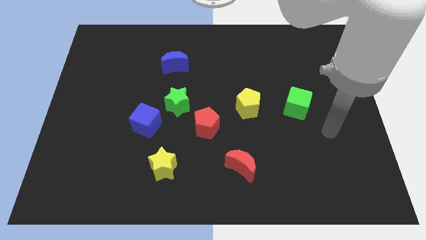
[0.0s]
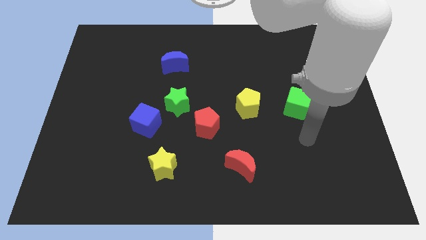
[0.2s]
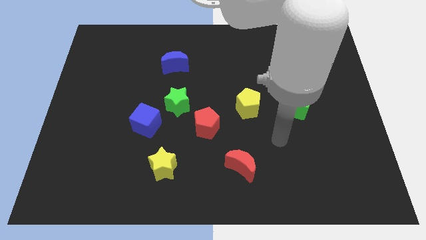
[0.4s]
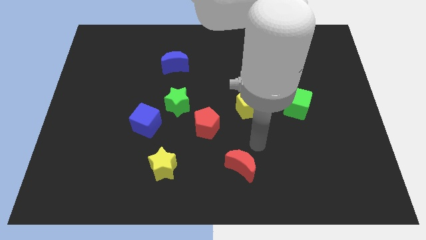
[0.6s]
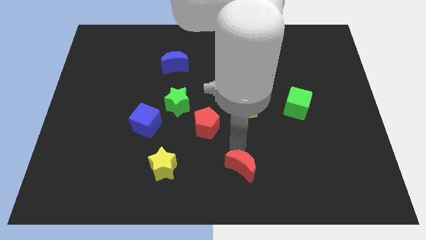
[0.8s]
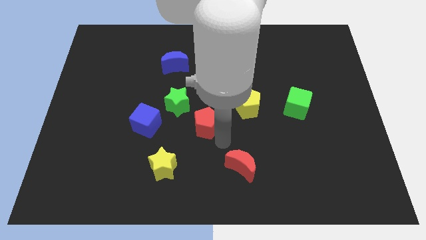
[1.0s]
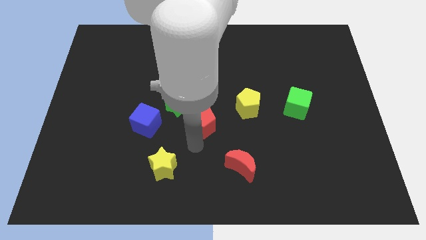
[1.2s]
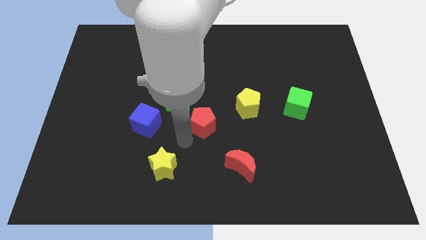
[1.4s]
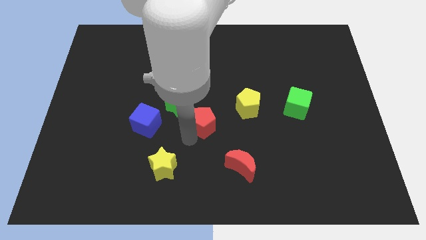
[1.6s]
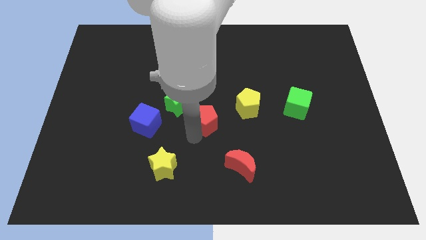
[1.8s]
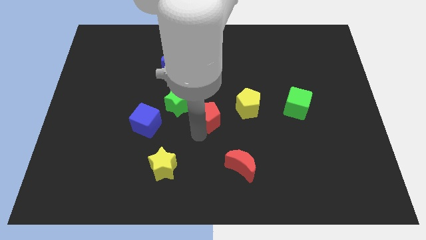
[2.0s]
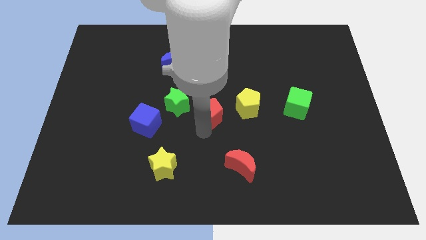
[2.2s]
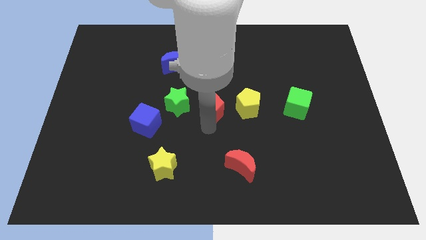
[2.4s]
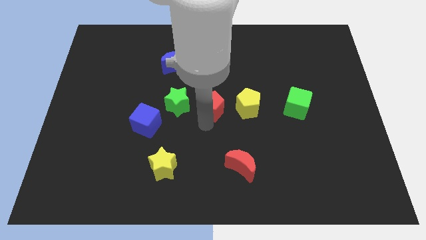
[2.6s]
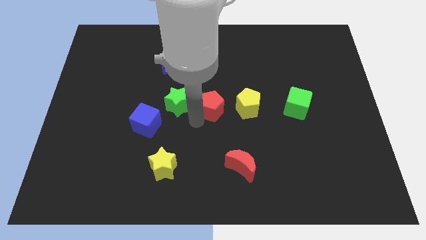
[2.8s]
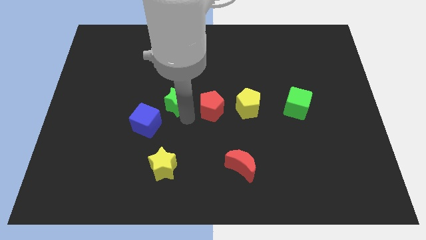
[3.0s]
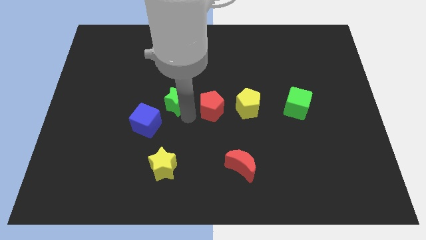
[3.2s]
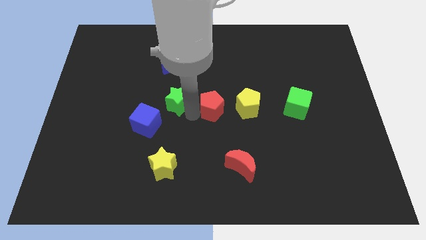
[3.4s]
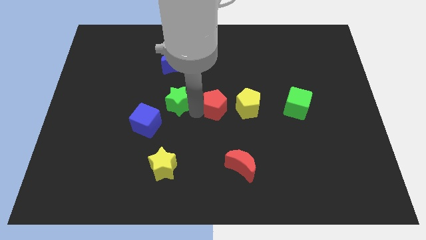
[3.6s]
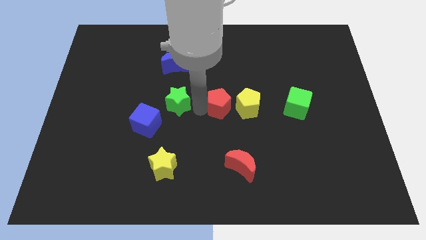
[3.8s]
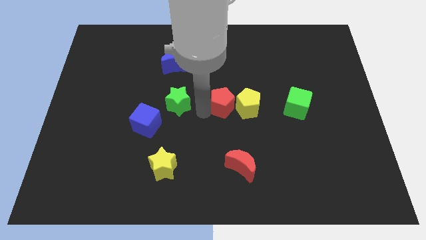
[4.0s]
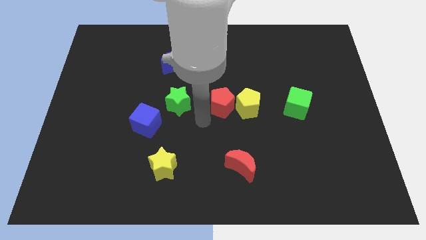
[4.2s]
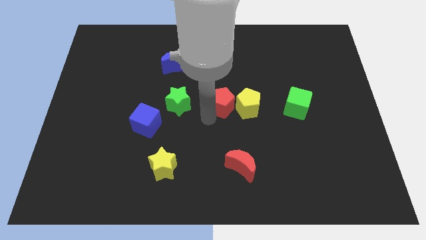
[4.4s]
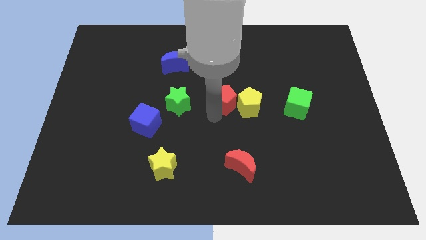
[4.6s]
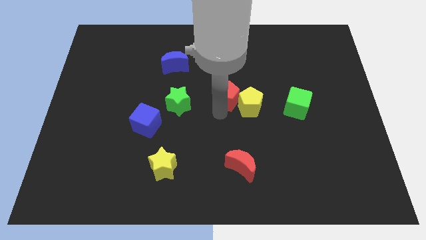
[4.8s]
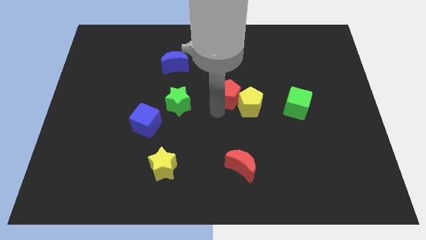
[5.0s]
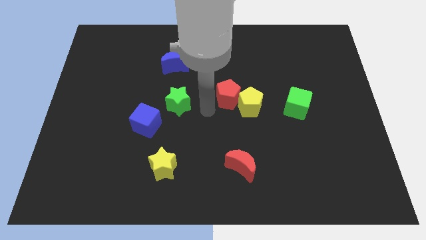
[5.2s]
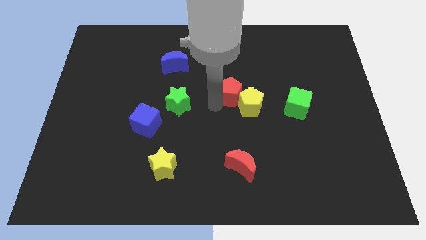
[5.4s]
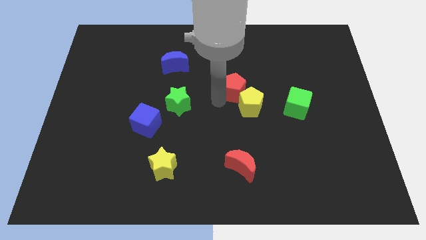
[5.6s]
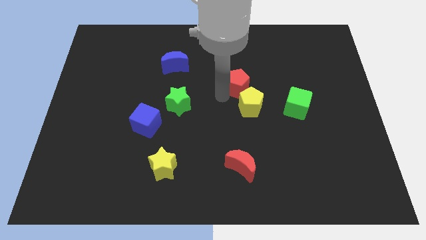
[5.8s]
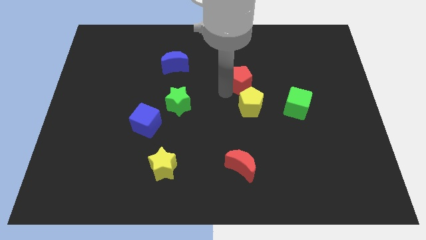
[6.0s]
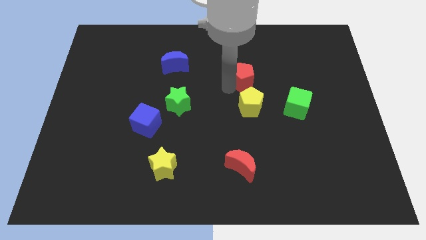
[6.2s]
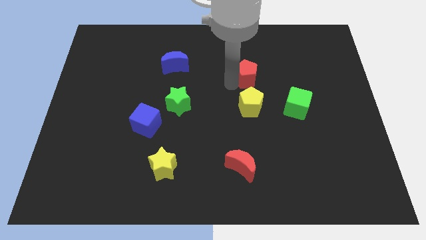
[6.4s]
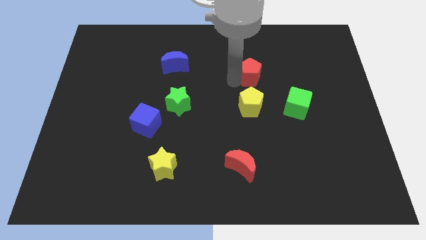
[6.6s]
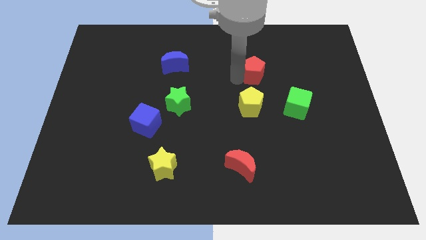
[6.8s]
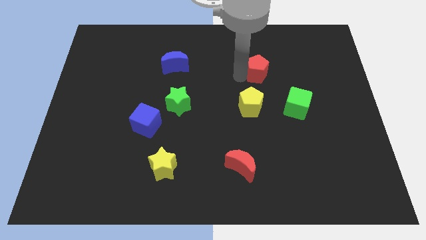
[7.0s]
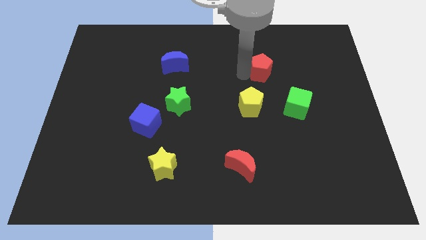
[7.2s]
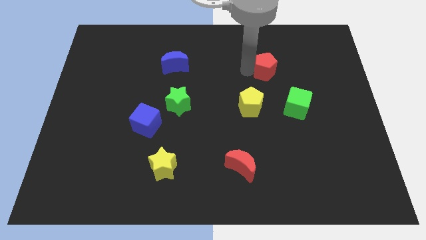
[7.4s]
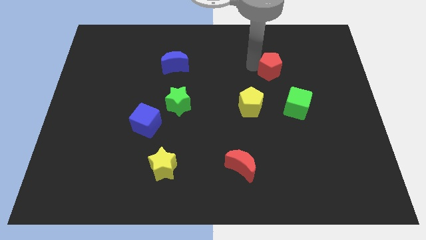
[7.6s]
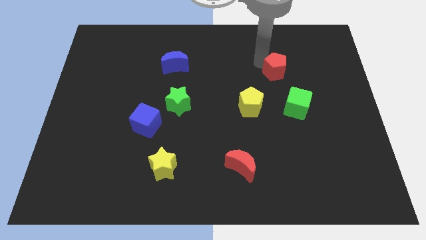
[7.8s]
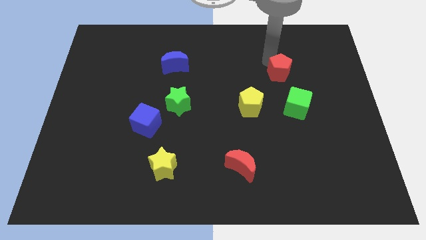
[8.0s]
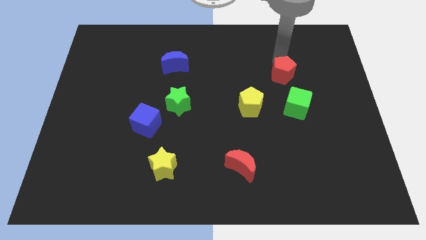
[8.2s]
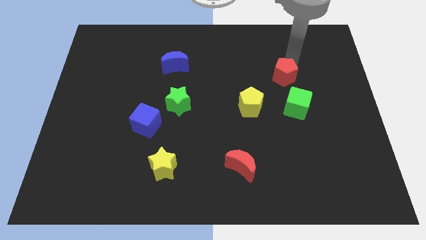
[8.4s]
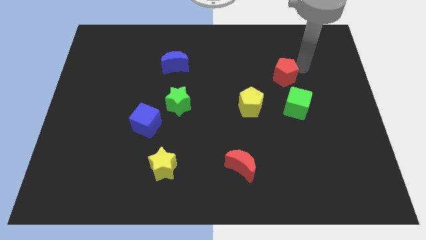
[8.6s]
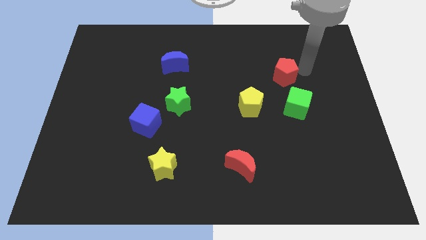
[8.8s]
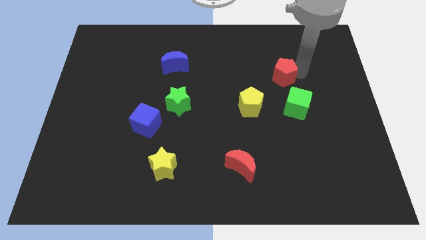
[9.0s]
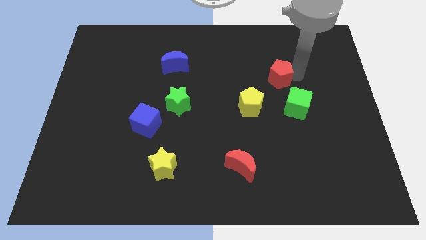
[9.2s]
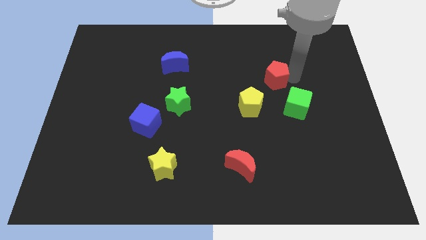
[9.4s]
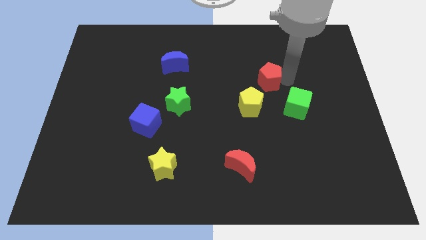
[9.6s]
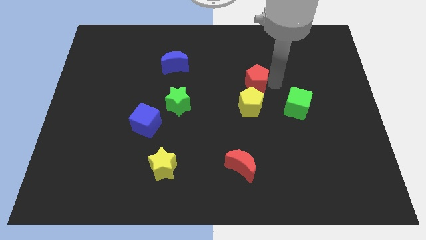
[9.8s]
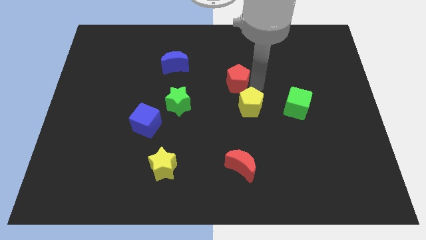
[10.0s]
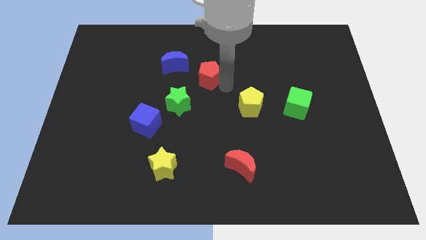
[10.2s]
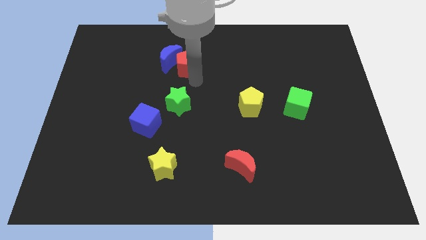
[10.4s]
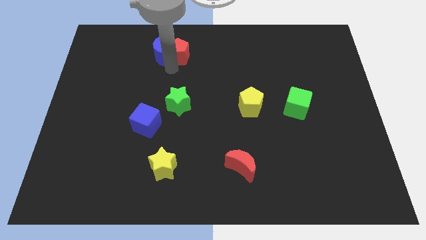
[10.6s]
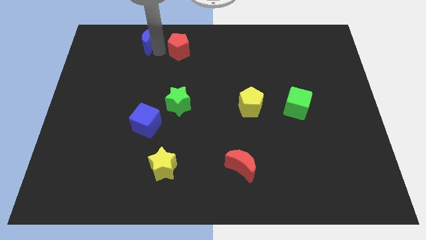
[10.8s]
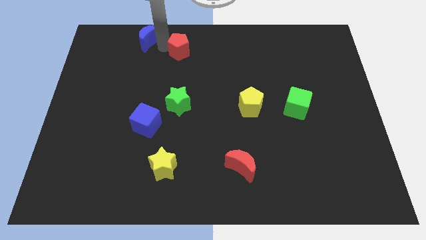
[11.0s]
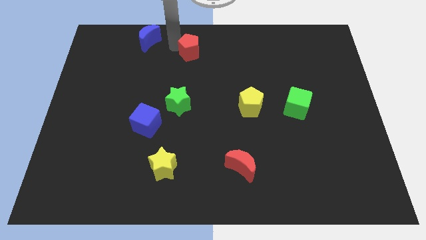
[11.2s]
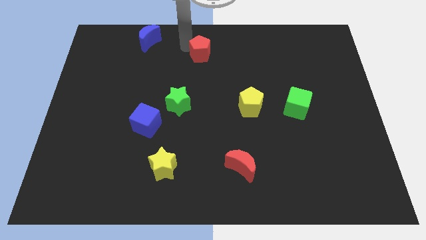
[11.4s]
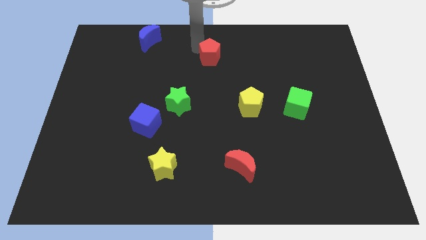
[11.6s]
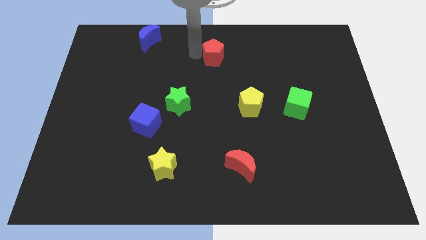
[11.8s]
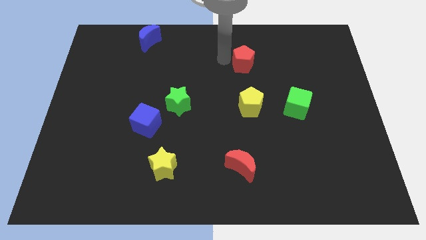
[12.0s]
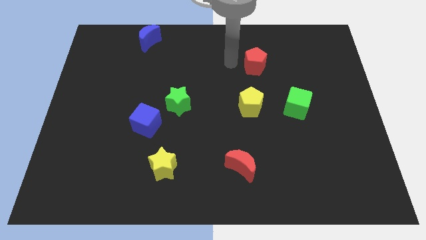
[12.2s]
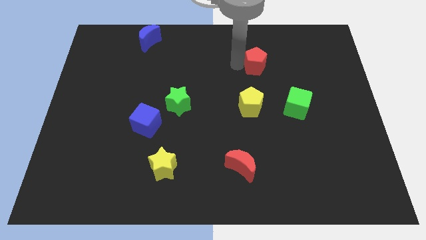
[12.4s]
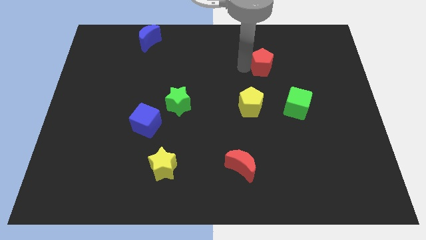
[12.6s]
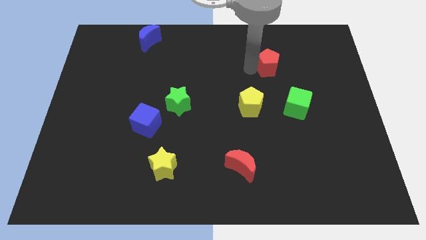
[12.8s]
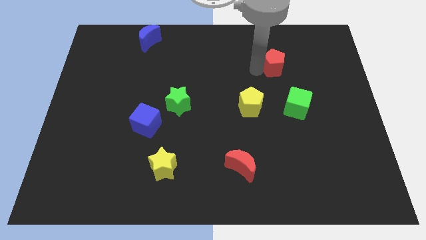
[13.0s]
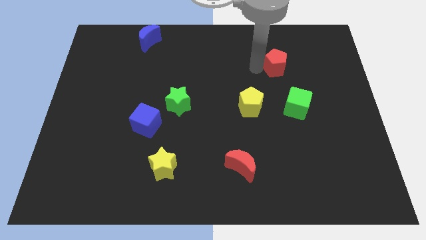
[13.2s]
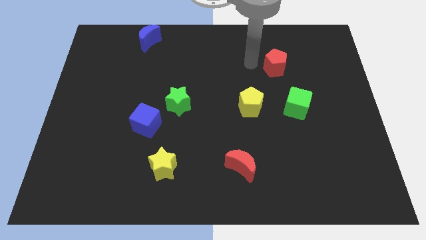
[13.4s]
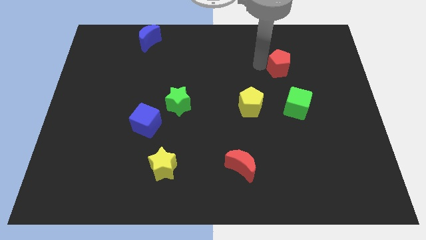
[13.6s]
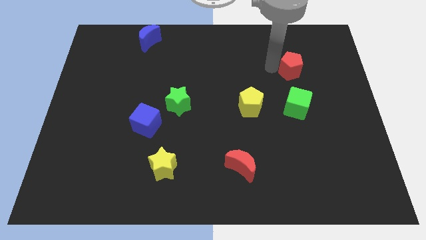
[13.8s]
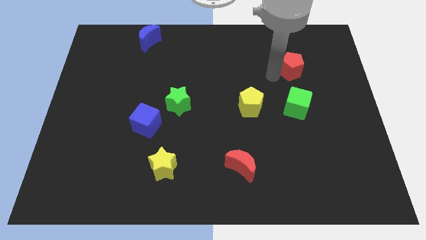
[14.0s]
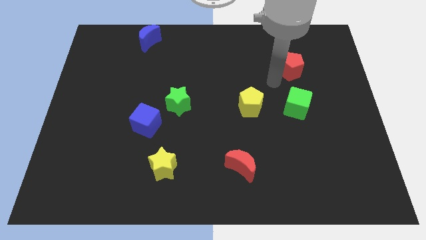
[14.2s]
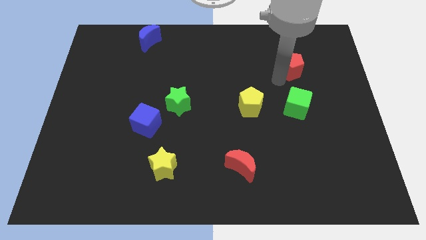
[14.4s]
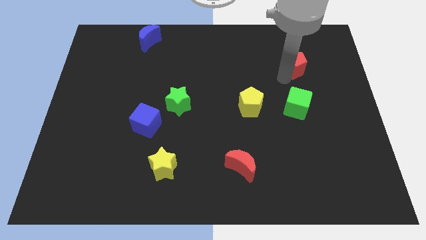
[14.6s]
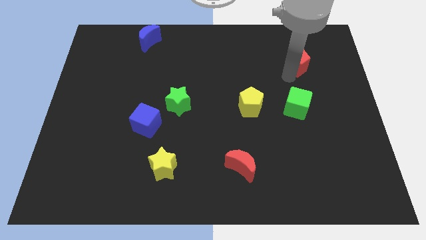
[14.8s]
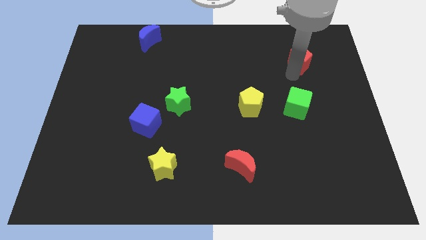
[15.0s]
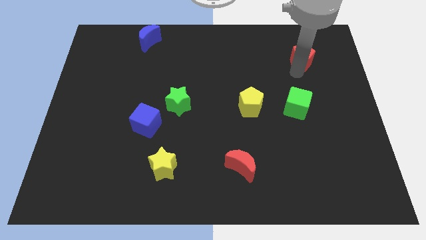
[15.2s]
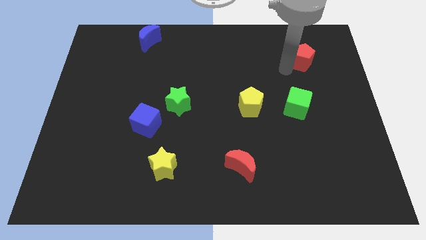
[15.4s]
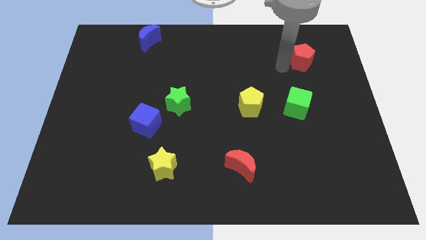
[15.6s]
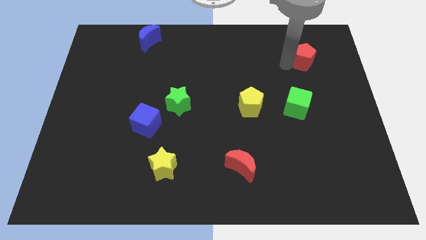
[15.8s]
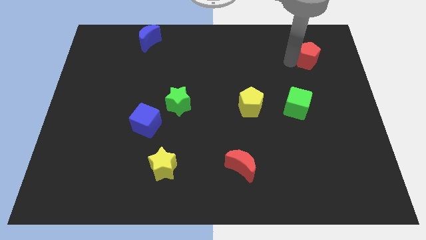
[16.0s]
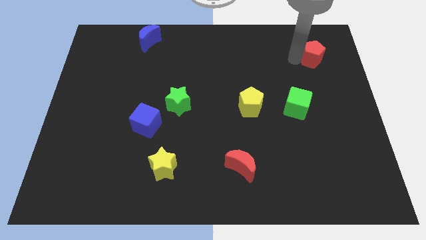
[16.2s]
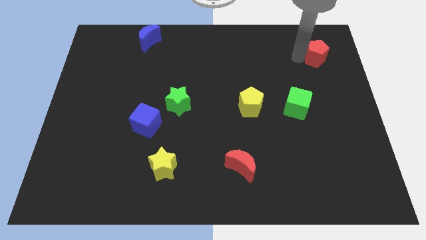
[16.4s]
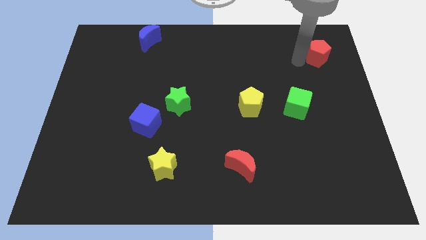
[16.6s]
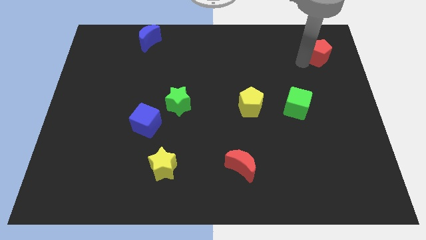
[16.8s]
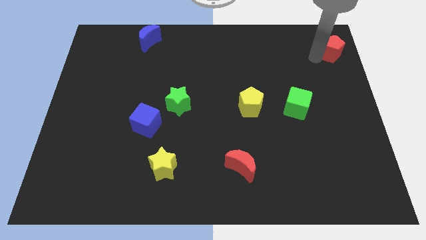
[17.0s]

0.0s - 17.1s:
move the red pentagon to the upper right corner
